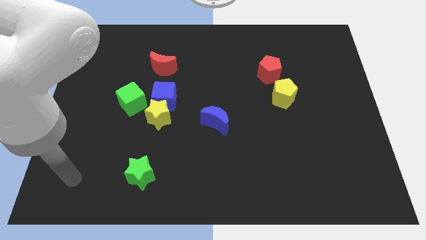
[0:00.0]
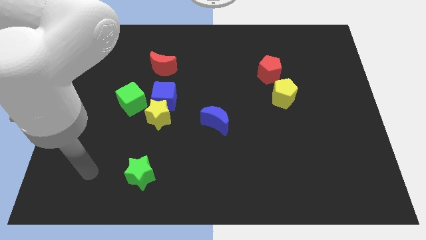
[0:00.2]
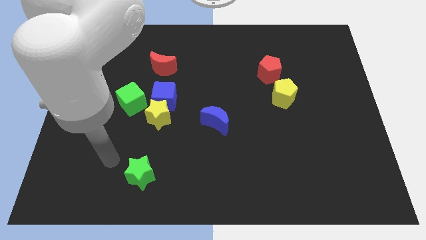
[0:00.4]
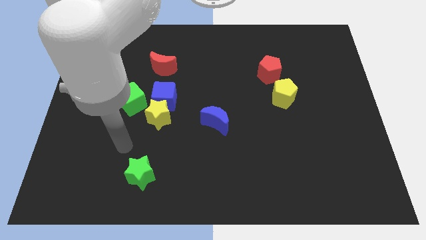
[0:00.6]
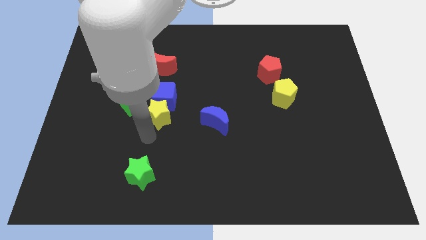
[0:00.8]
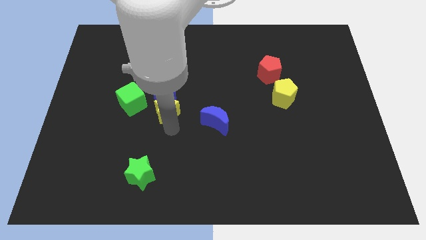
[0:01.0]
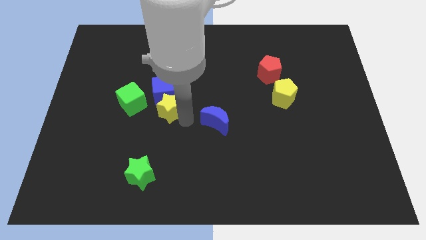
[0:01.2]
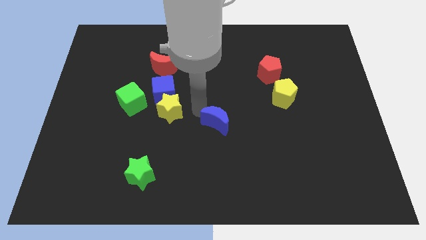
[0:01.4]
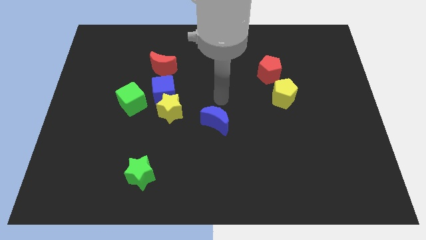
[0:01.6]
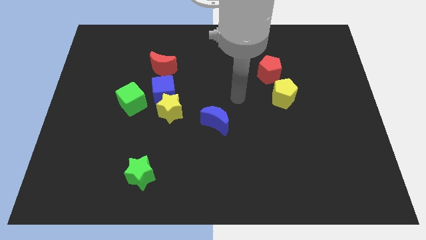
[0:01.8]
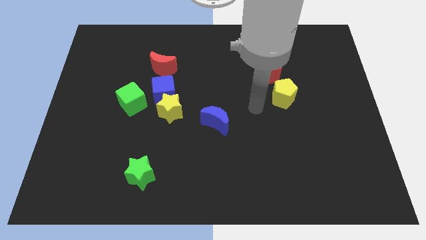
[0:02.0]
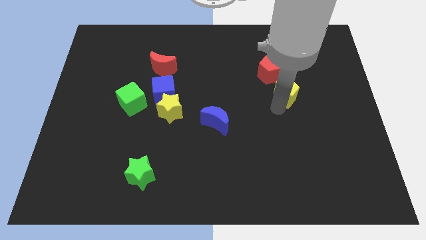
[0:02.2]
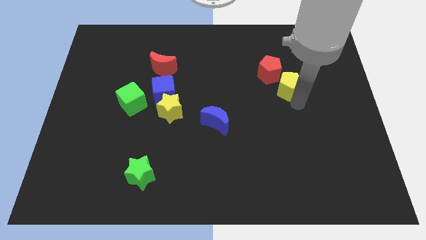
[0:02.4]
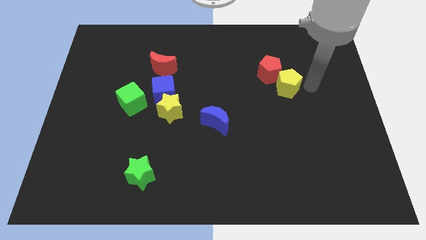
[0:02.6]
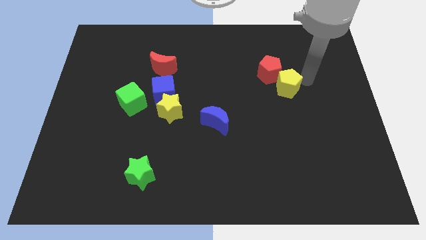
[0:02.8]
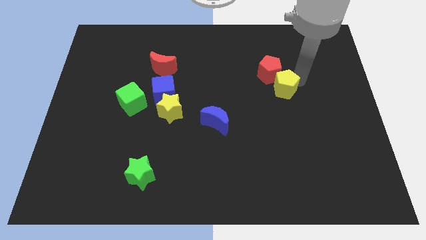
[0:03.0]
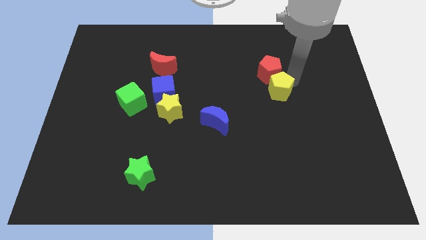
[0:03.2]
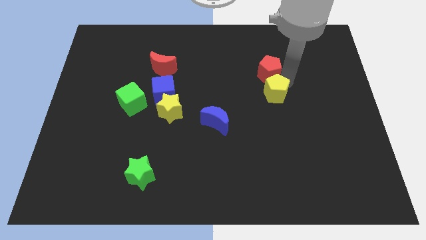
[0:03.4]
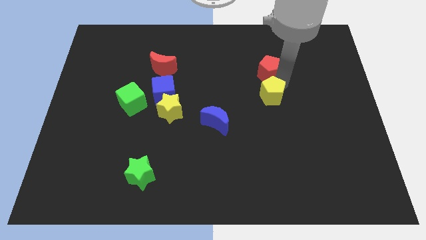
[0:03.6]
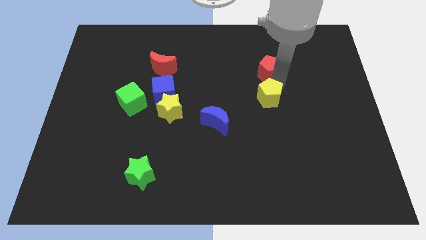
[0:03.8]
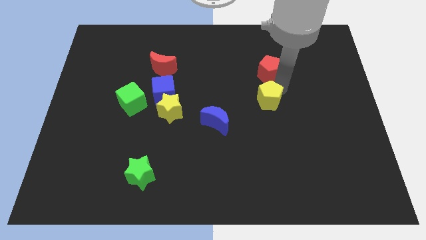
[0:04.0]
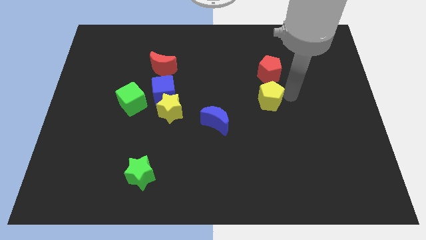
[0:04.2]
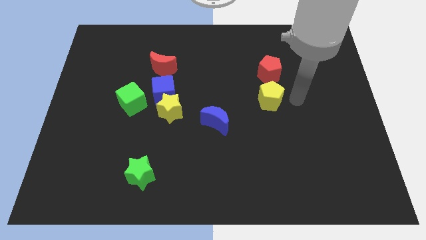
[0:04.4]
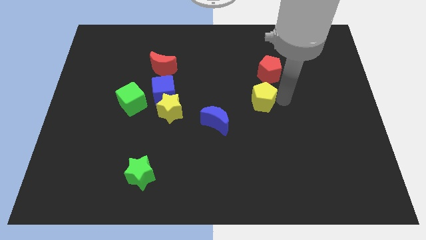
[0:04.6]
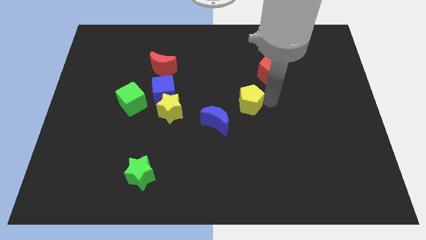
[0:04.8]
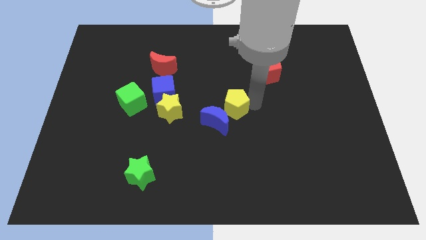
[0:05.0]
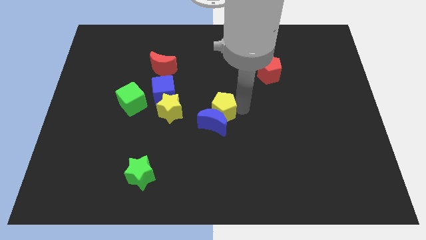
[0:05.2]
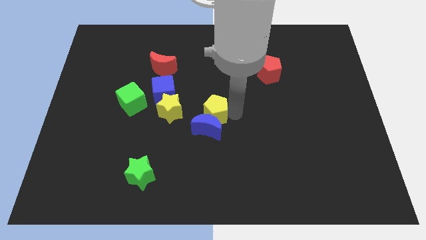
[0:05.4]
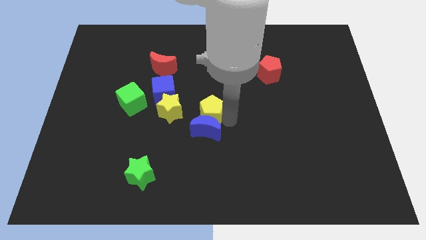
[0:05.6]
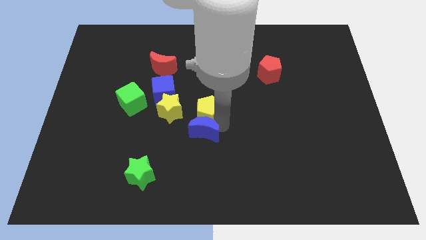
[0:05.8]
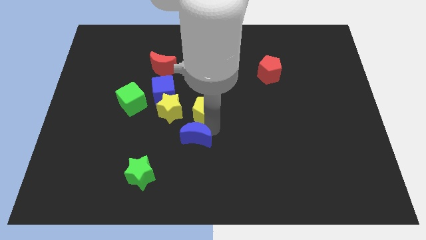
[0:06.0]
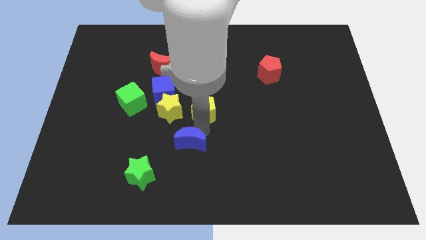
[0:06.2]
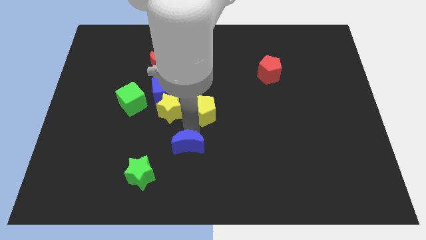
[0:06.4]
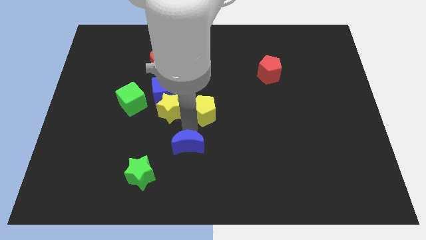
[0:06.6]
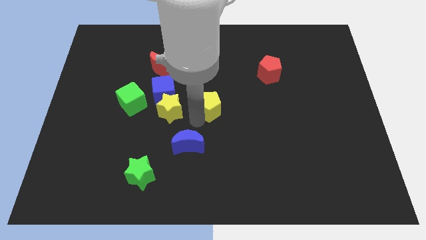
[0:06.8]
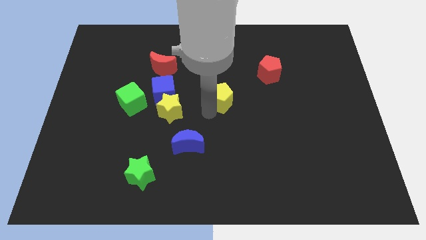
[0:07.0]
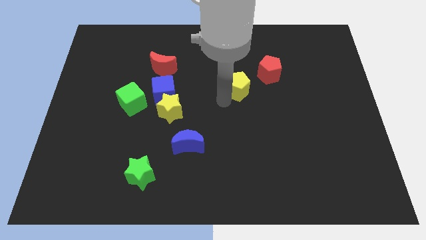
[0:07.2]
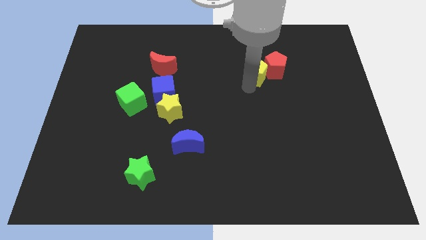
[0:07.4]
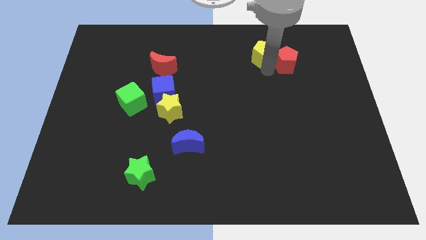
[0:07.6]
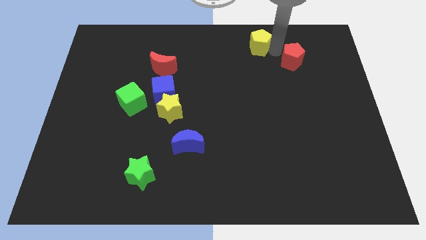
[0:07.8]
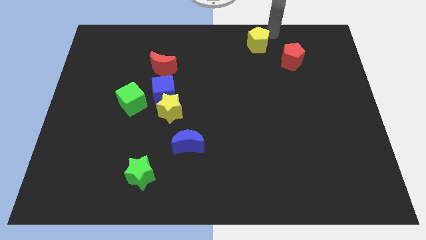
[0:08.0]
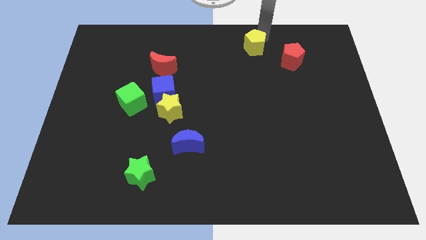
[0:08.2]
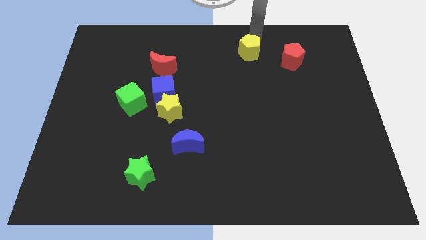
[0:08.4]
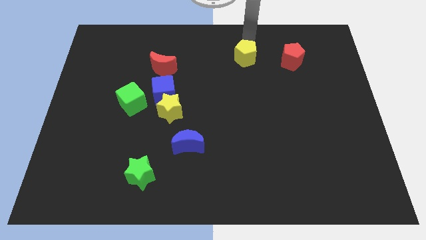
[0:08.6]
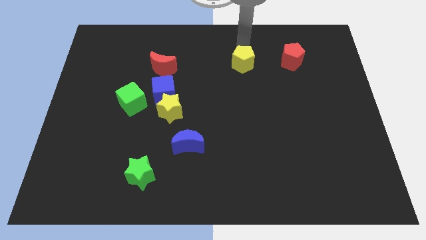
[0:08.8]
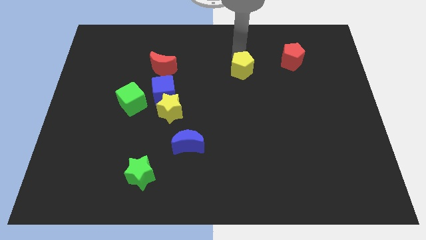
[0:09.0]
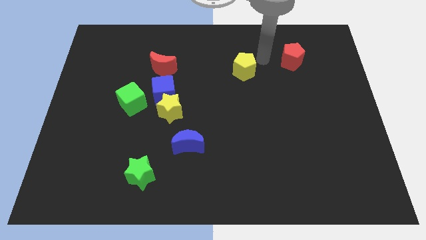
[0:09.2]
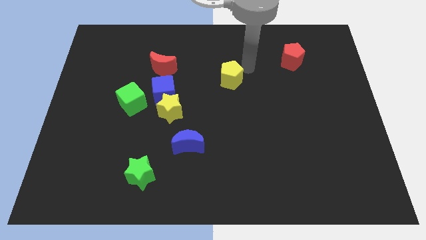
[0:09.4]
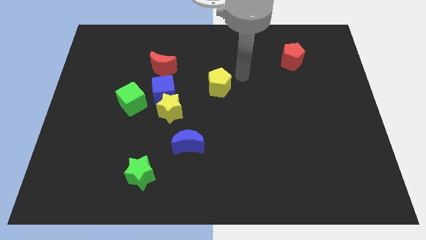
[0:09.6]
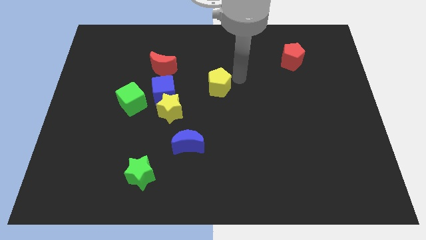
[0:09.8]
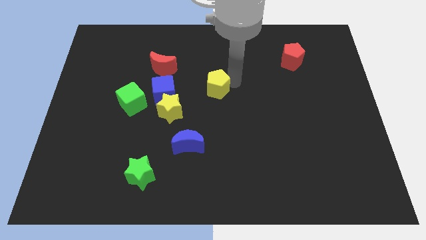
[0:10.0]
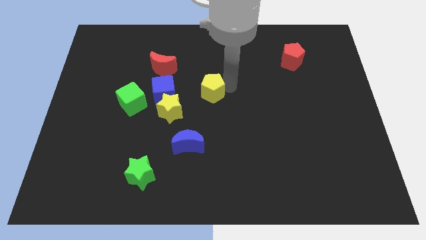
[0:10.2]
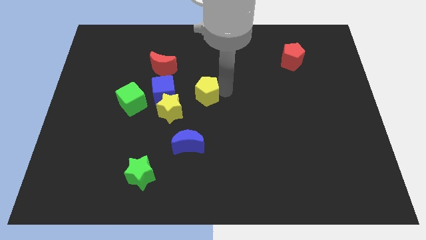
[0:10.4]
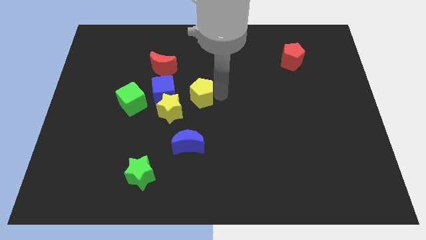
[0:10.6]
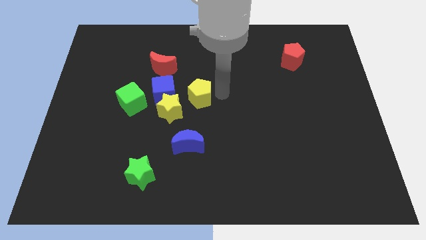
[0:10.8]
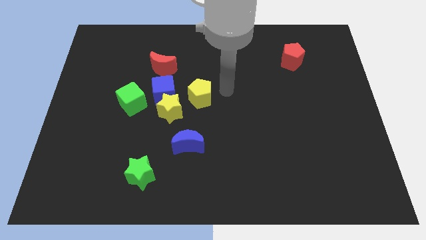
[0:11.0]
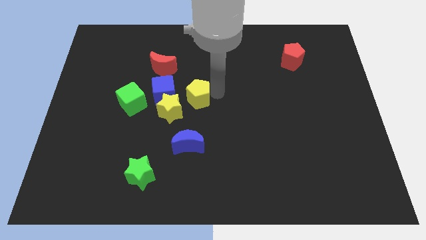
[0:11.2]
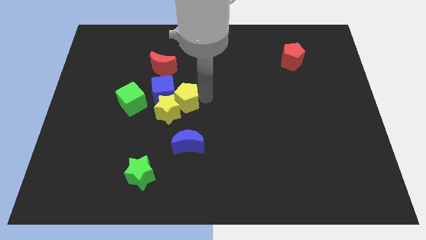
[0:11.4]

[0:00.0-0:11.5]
move the yellow pentagon towards the blue cube

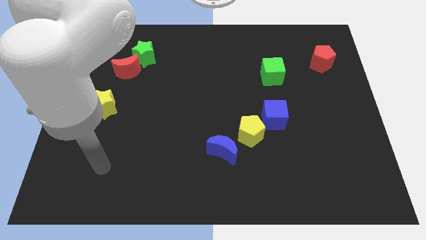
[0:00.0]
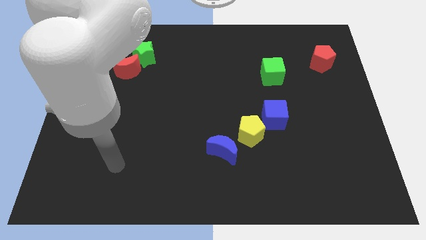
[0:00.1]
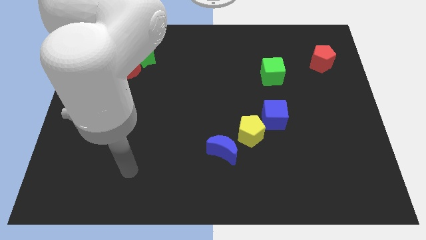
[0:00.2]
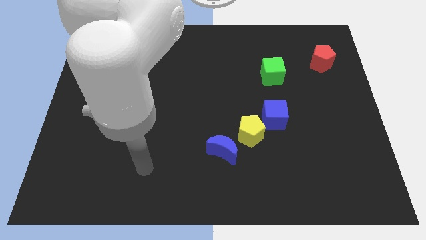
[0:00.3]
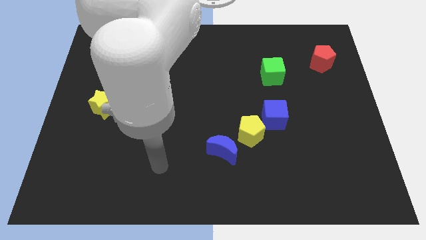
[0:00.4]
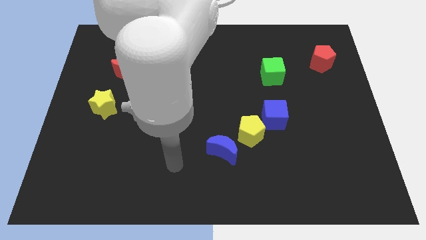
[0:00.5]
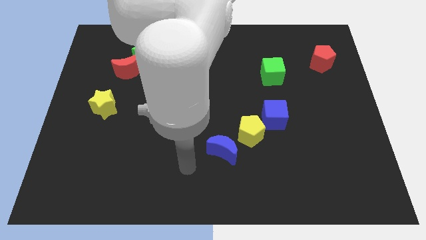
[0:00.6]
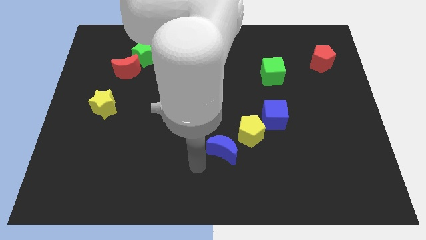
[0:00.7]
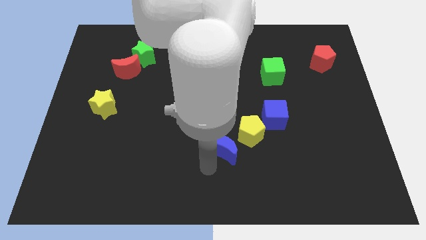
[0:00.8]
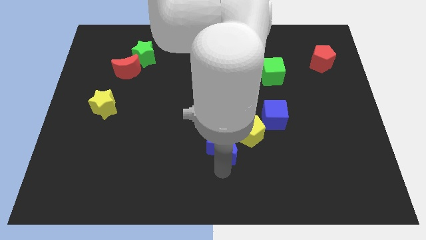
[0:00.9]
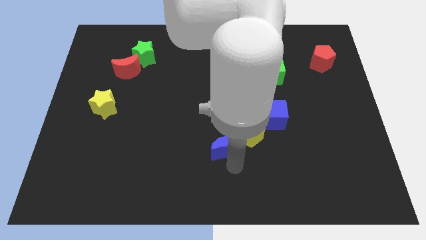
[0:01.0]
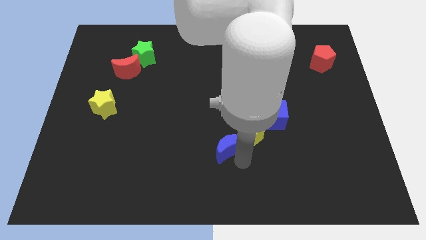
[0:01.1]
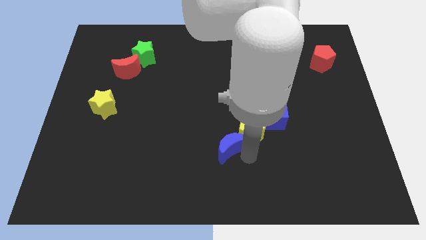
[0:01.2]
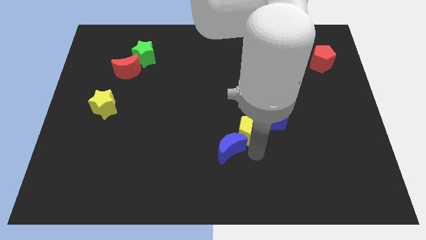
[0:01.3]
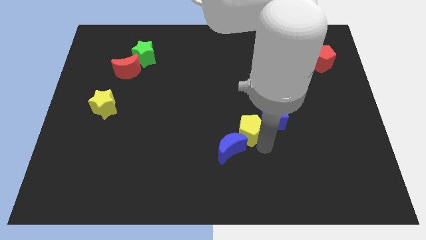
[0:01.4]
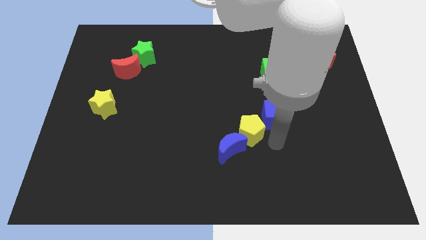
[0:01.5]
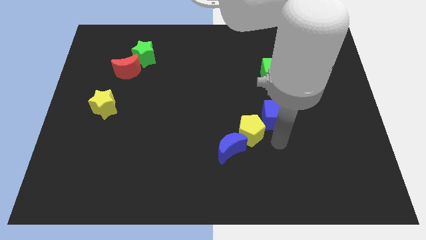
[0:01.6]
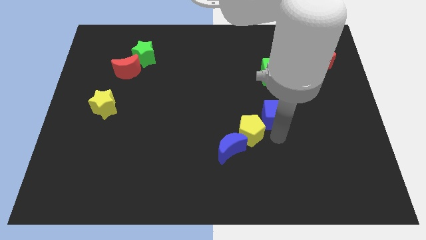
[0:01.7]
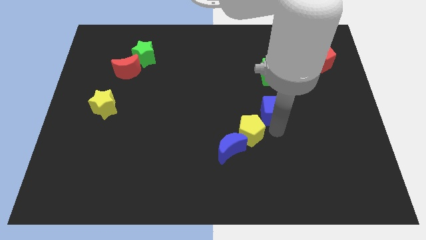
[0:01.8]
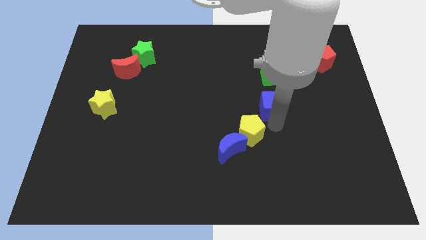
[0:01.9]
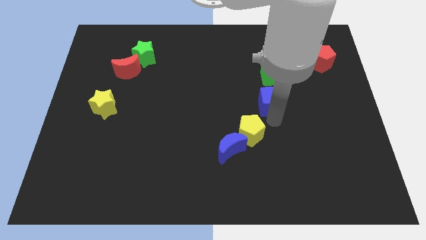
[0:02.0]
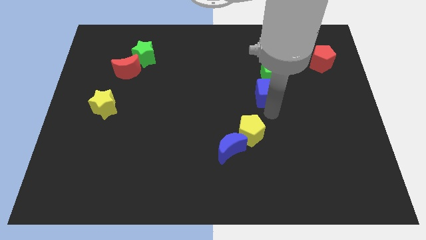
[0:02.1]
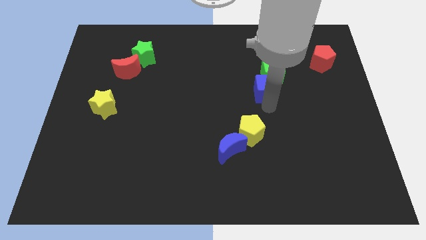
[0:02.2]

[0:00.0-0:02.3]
move the blue cube towards the green cube
